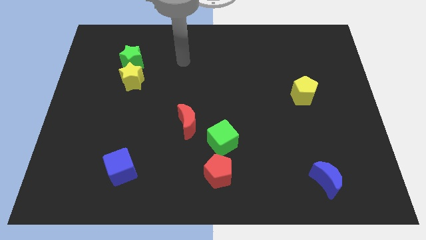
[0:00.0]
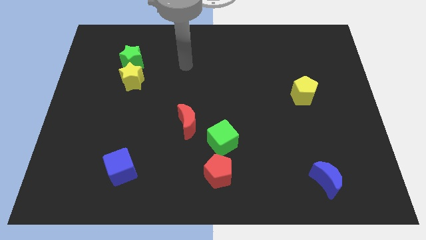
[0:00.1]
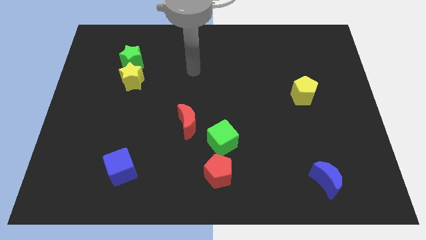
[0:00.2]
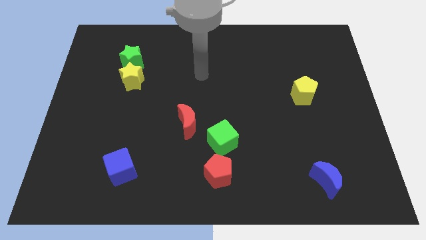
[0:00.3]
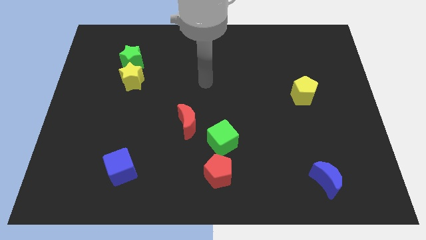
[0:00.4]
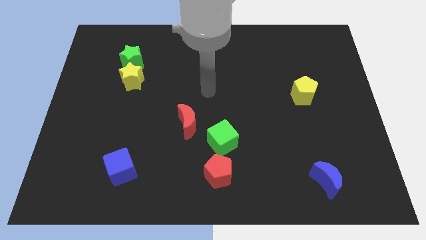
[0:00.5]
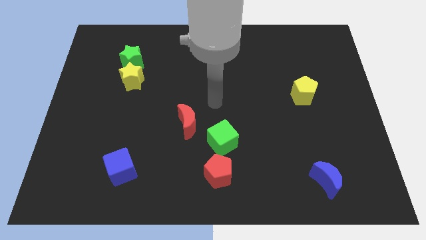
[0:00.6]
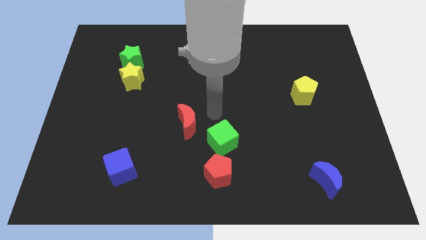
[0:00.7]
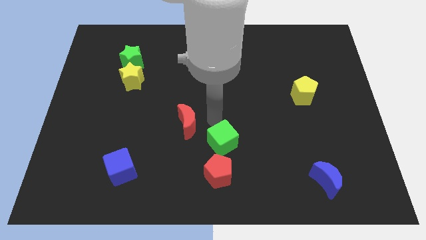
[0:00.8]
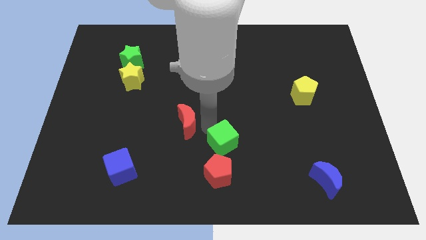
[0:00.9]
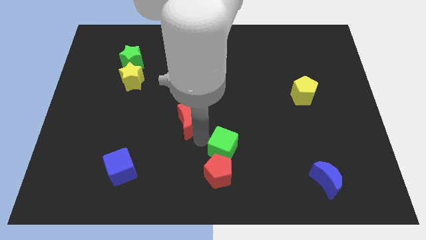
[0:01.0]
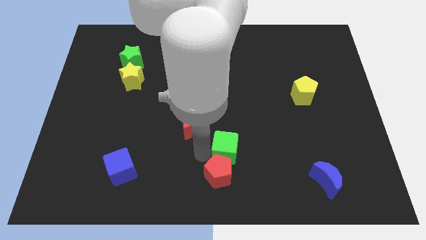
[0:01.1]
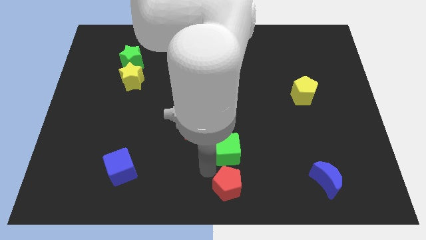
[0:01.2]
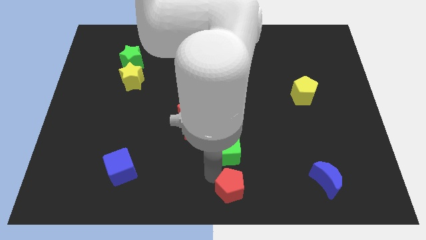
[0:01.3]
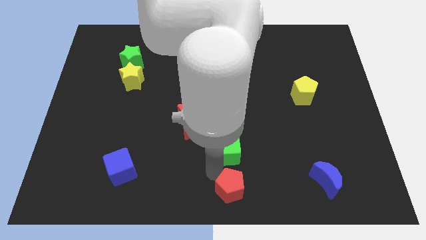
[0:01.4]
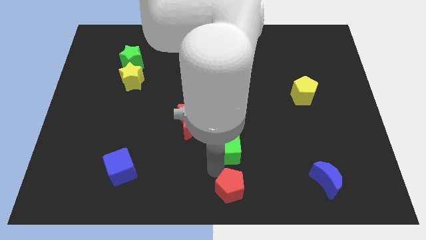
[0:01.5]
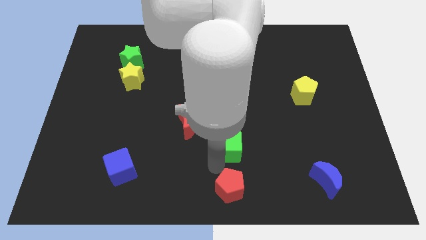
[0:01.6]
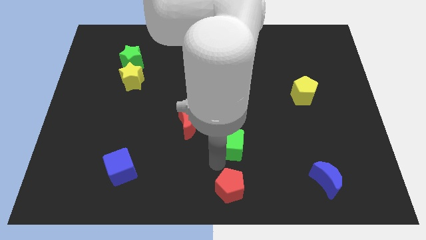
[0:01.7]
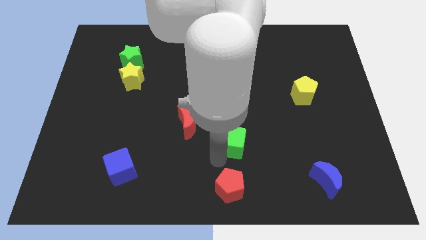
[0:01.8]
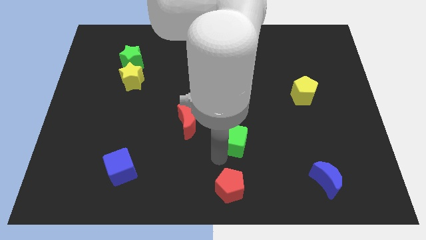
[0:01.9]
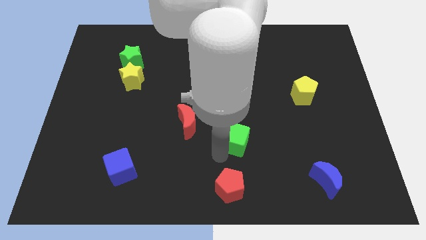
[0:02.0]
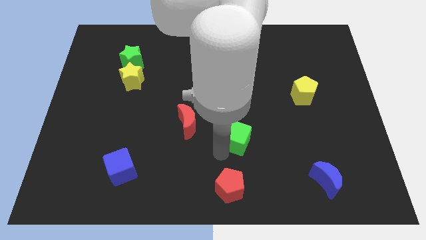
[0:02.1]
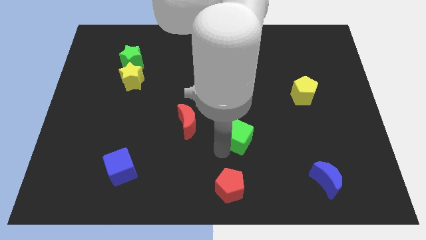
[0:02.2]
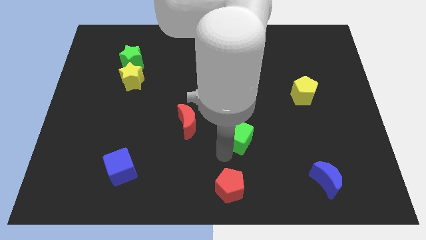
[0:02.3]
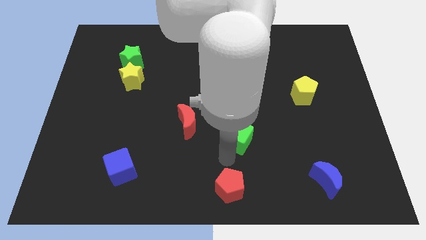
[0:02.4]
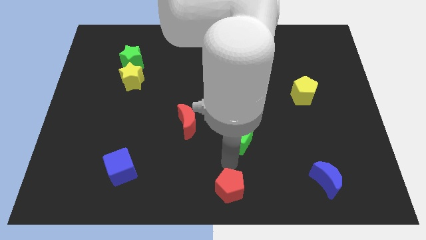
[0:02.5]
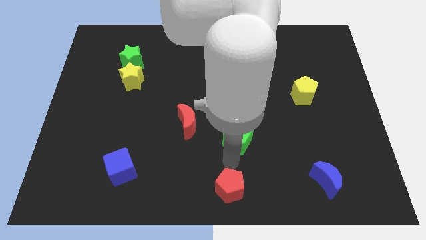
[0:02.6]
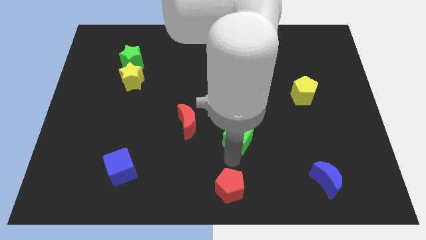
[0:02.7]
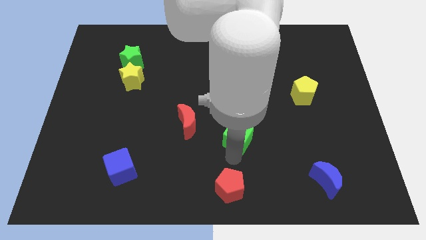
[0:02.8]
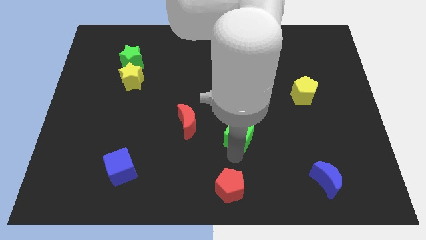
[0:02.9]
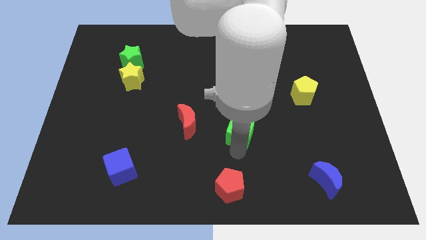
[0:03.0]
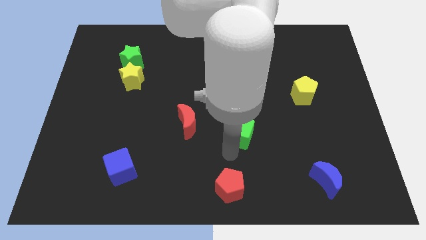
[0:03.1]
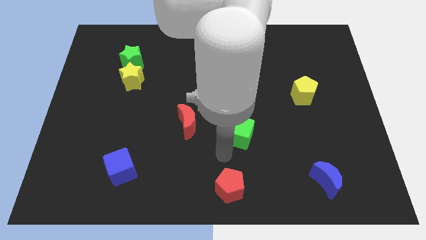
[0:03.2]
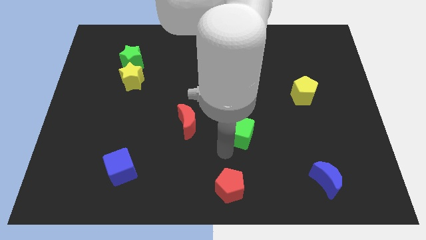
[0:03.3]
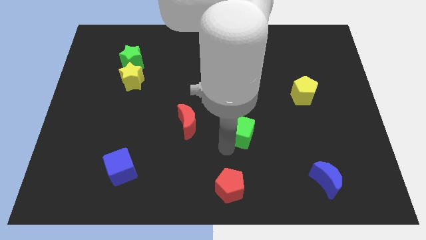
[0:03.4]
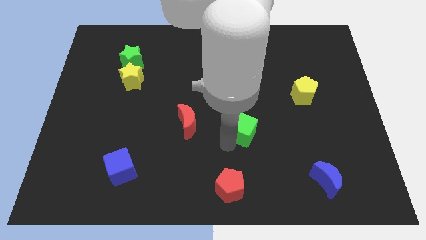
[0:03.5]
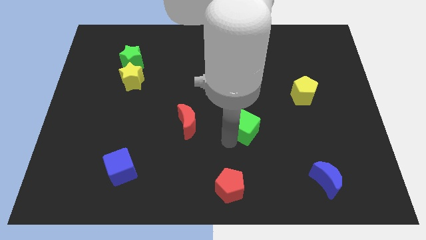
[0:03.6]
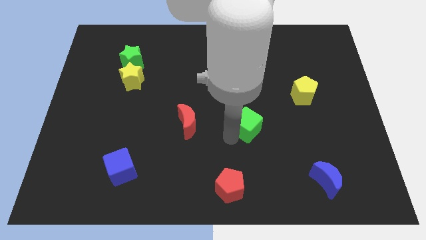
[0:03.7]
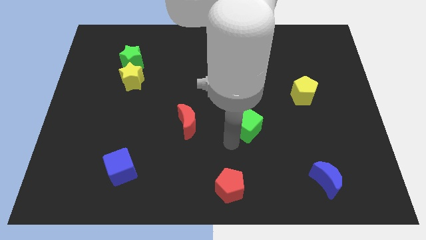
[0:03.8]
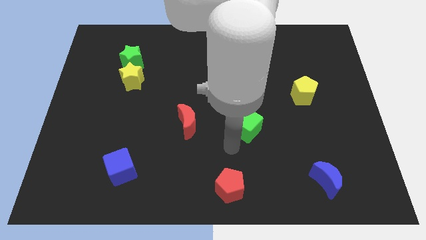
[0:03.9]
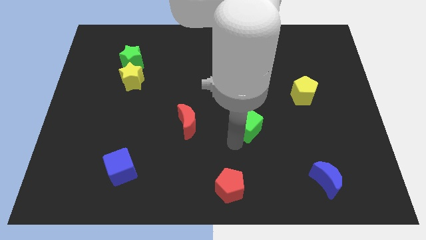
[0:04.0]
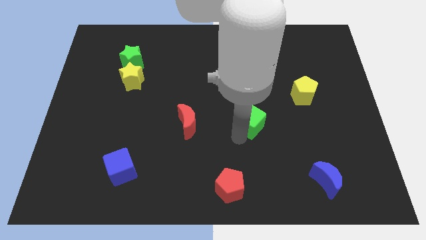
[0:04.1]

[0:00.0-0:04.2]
slide the green cube upwards and to the right diagonally slightly

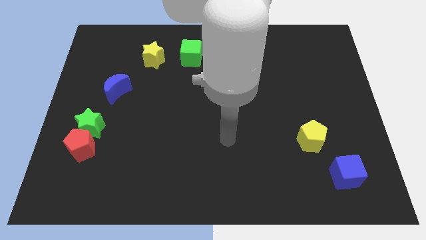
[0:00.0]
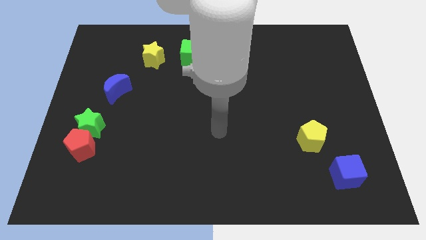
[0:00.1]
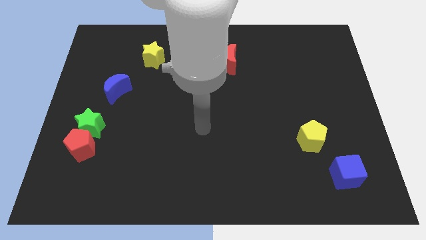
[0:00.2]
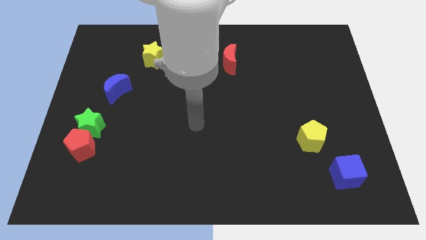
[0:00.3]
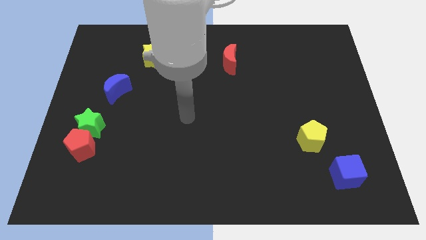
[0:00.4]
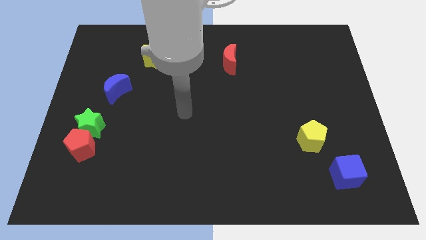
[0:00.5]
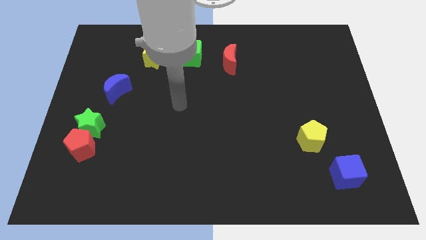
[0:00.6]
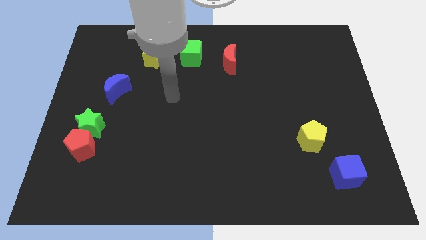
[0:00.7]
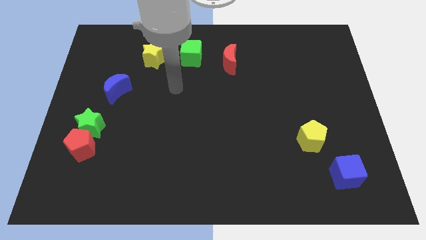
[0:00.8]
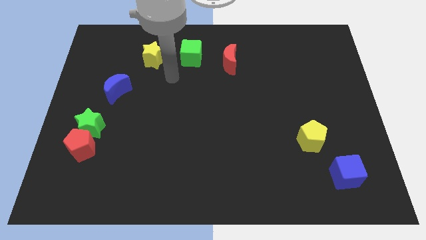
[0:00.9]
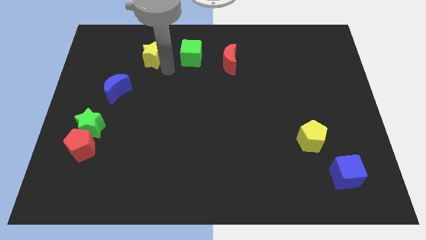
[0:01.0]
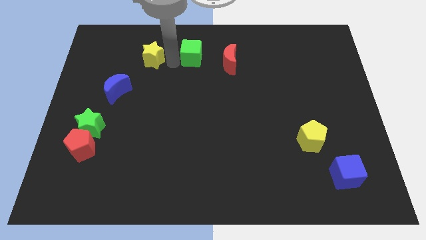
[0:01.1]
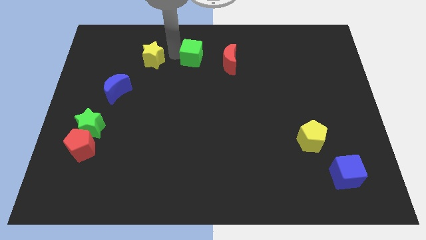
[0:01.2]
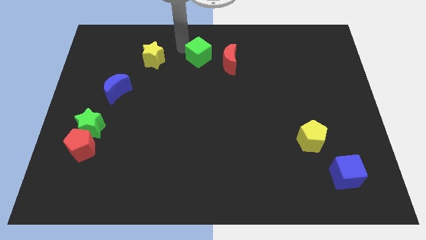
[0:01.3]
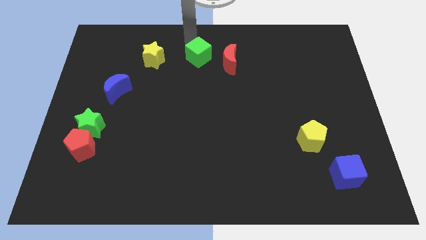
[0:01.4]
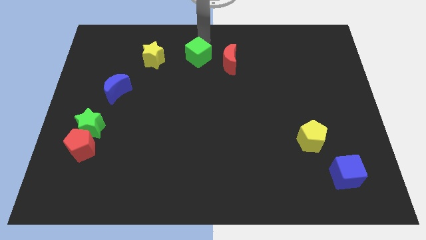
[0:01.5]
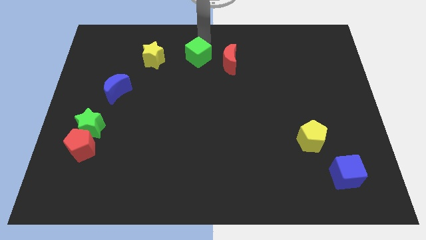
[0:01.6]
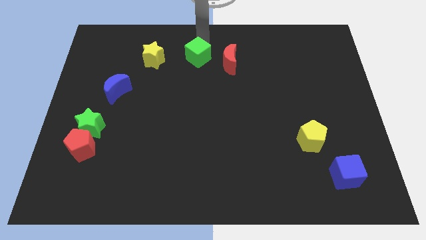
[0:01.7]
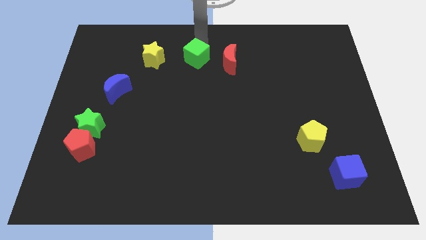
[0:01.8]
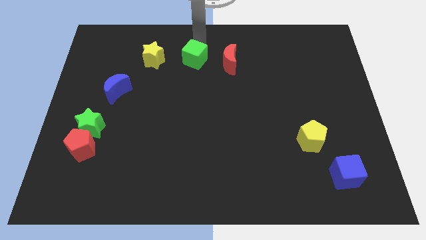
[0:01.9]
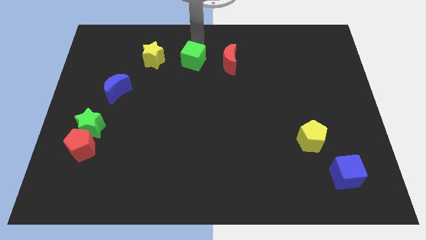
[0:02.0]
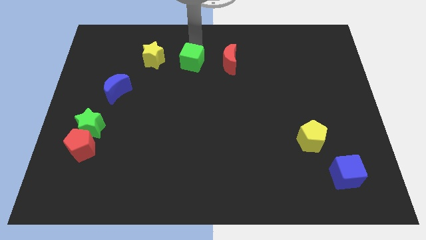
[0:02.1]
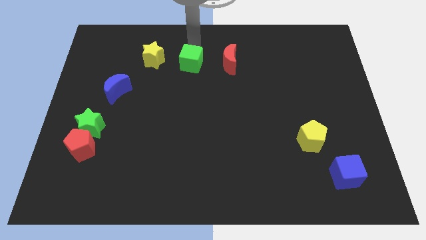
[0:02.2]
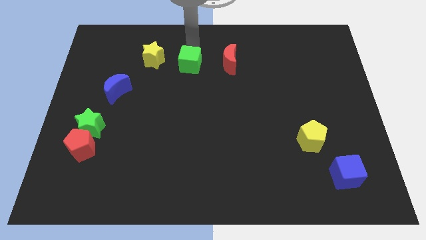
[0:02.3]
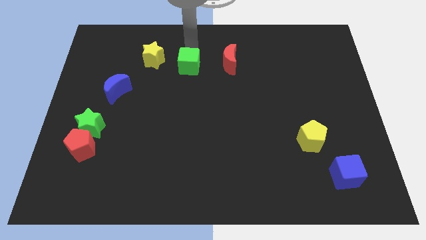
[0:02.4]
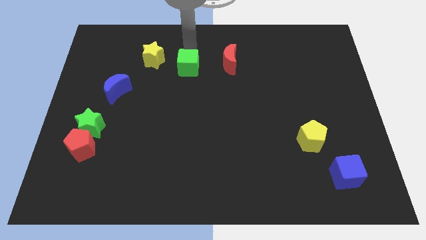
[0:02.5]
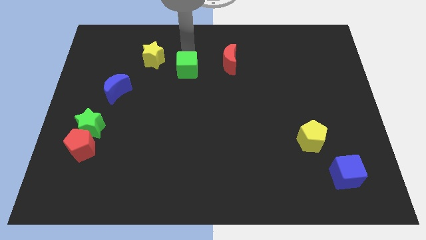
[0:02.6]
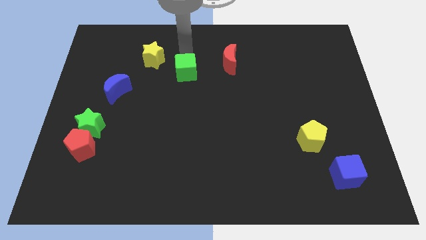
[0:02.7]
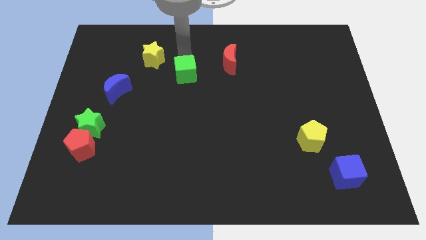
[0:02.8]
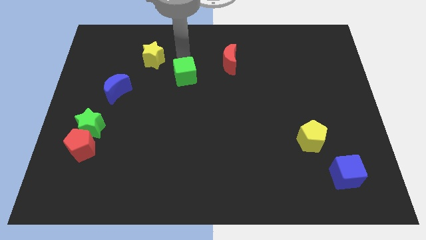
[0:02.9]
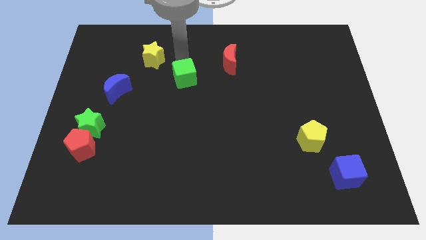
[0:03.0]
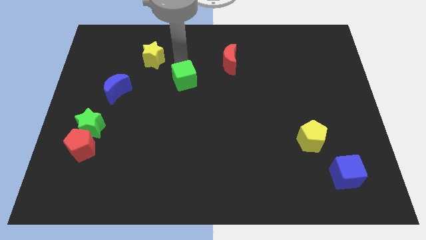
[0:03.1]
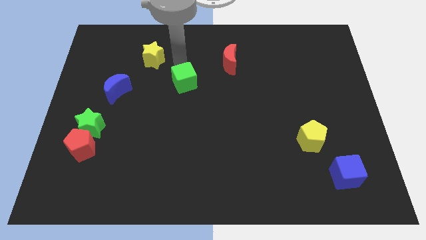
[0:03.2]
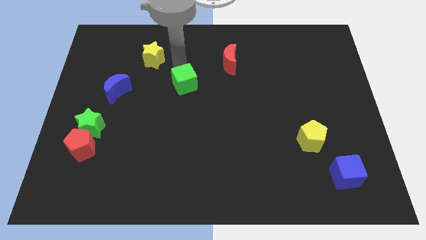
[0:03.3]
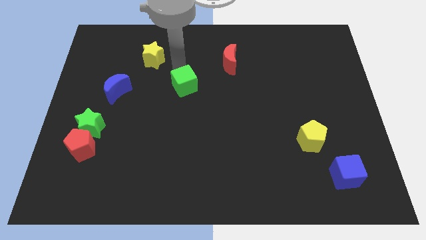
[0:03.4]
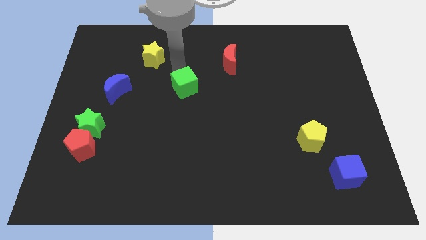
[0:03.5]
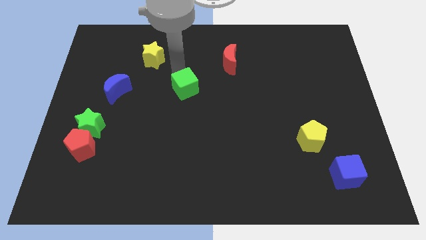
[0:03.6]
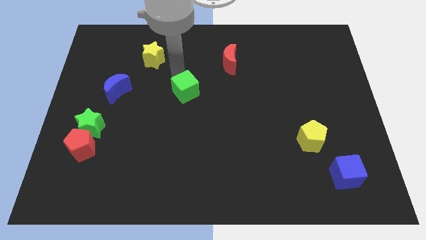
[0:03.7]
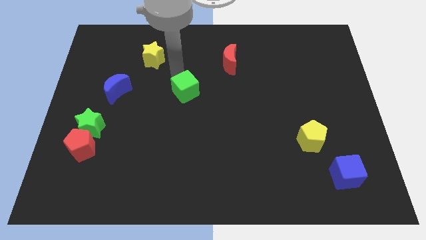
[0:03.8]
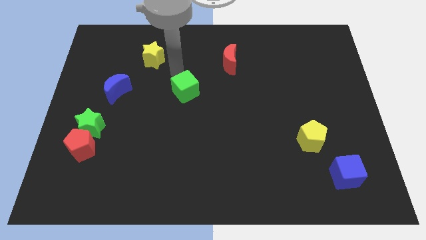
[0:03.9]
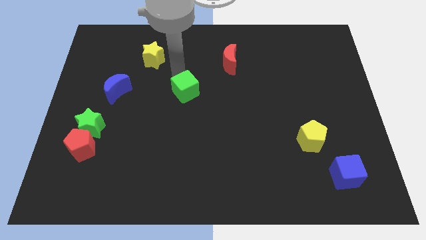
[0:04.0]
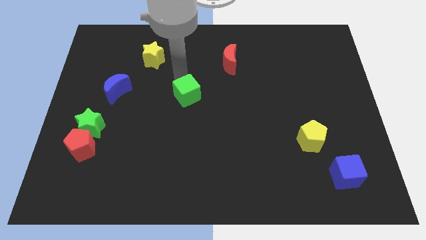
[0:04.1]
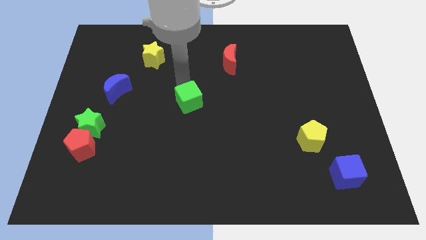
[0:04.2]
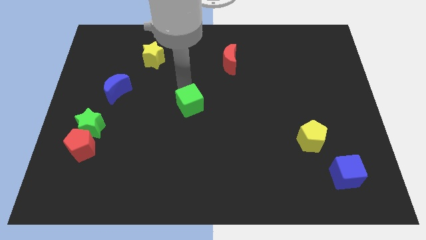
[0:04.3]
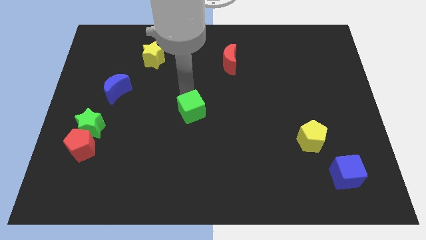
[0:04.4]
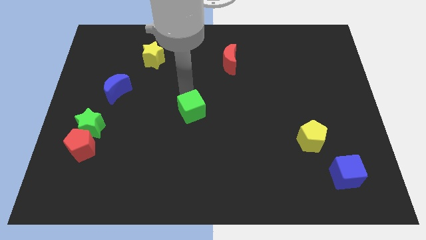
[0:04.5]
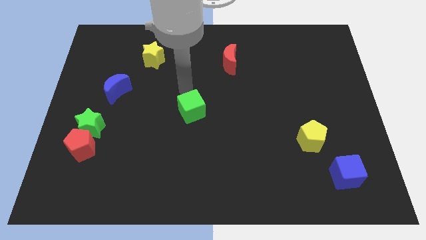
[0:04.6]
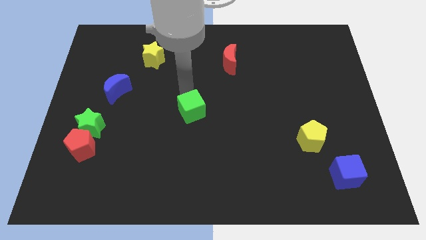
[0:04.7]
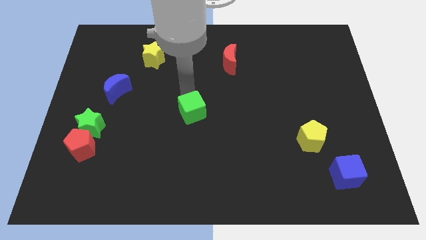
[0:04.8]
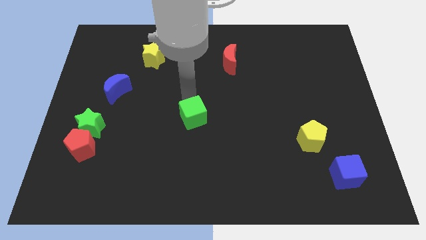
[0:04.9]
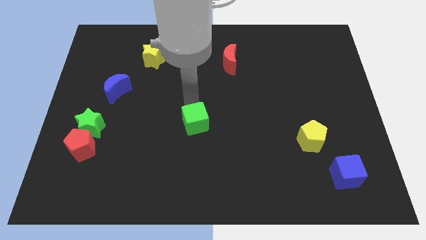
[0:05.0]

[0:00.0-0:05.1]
push the green cube downwards
